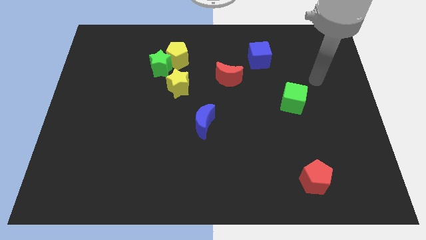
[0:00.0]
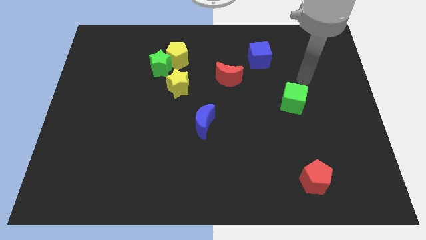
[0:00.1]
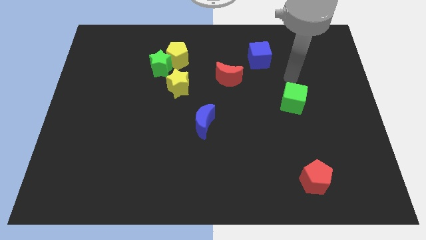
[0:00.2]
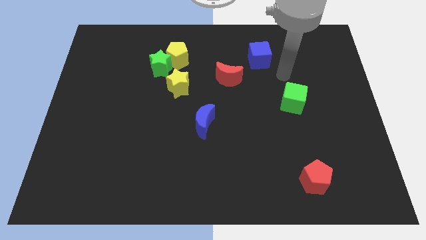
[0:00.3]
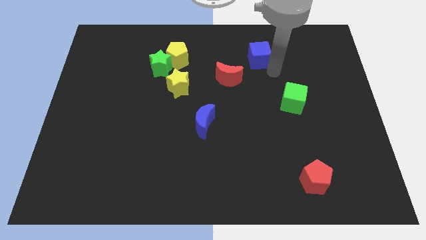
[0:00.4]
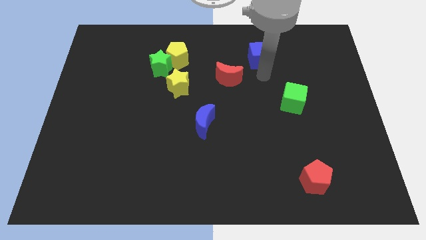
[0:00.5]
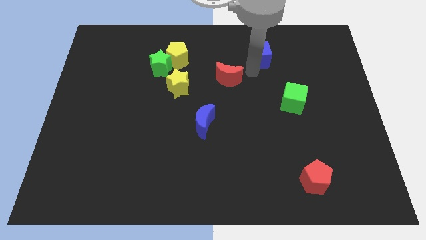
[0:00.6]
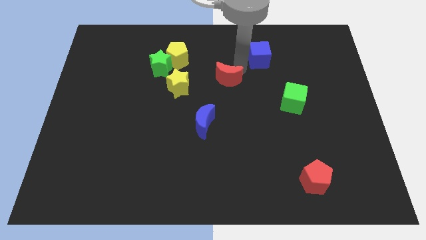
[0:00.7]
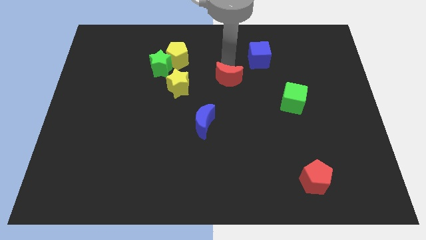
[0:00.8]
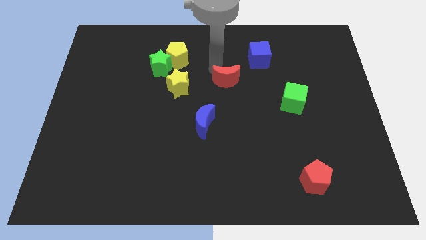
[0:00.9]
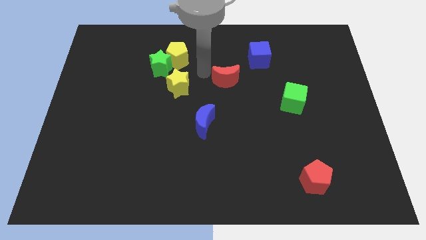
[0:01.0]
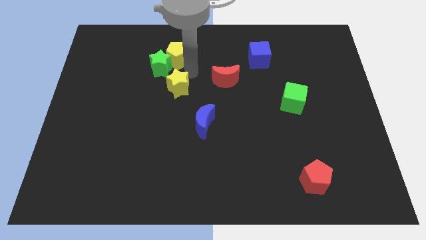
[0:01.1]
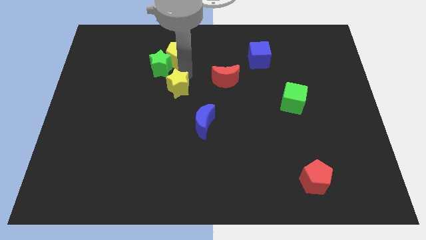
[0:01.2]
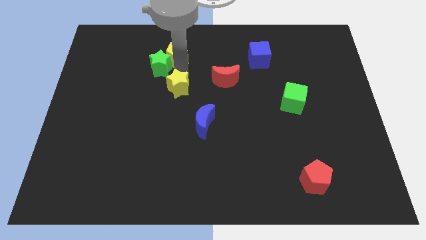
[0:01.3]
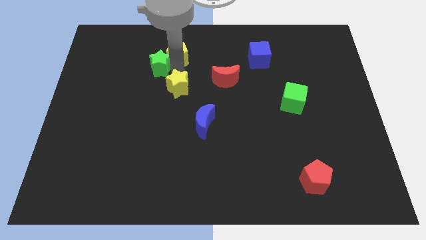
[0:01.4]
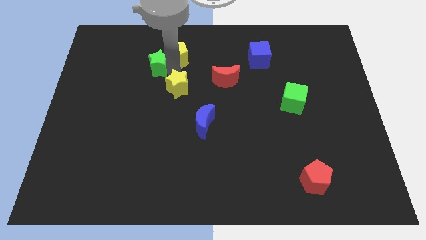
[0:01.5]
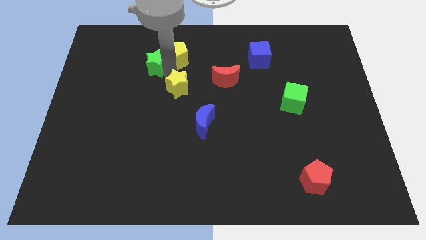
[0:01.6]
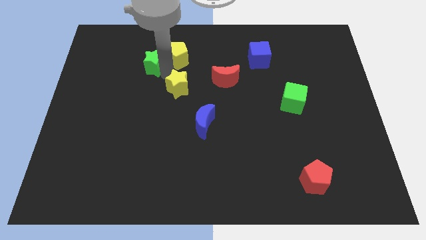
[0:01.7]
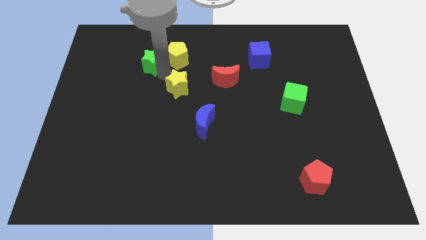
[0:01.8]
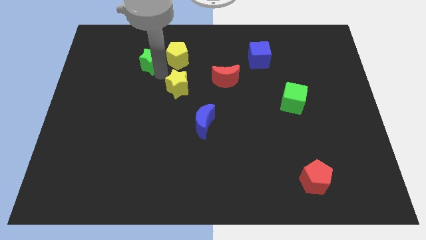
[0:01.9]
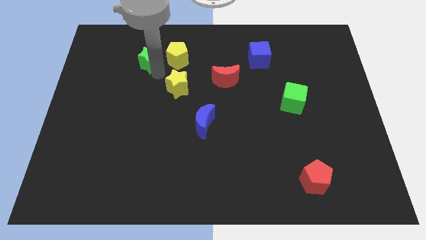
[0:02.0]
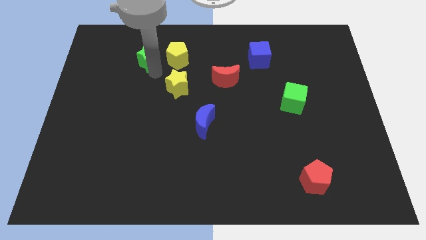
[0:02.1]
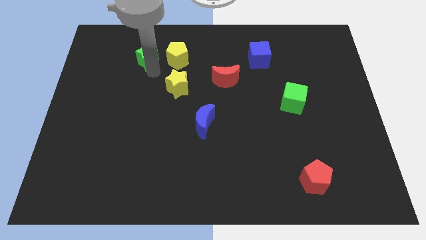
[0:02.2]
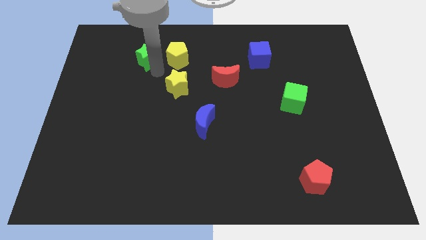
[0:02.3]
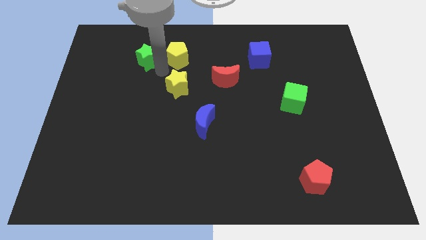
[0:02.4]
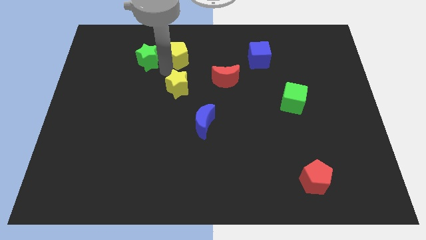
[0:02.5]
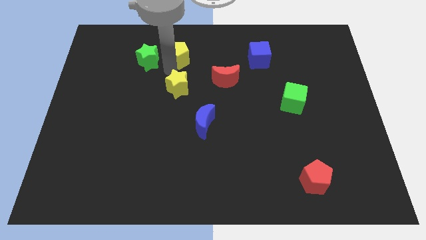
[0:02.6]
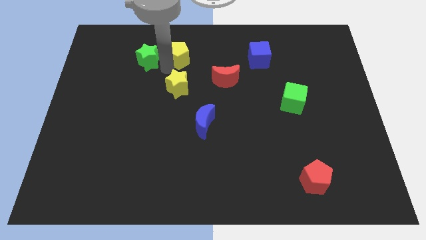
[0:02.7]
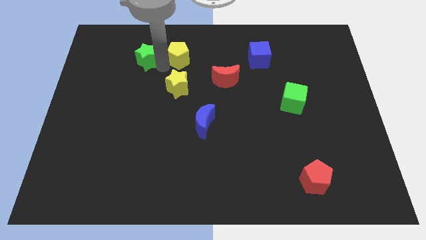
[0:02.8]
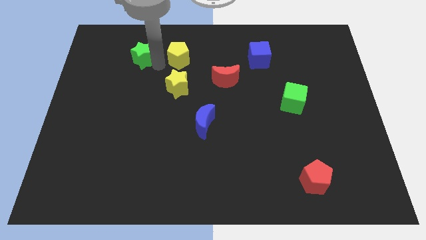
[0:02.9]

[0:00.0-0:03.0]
move the green star away from the yellow pentagon and yellow star

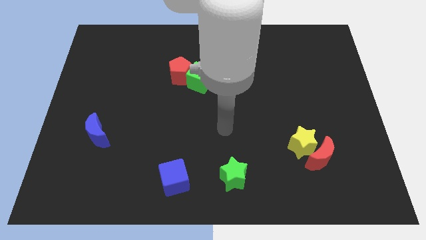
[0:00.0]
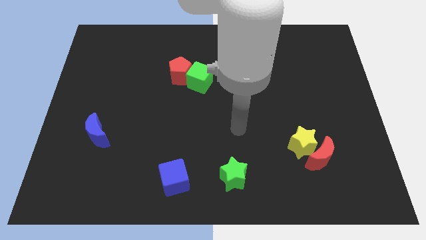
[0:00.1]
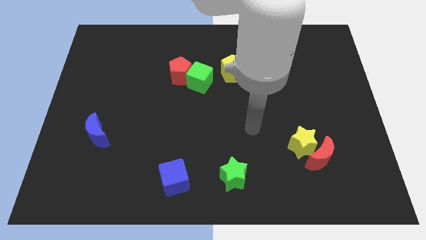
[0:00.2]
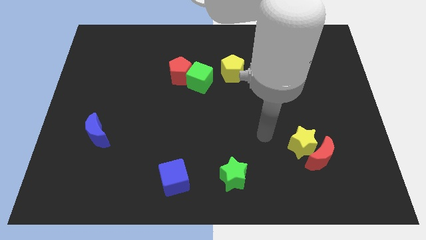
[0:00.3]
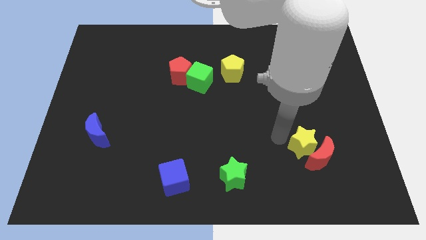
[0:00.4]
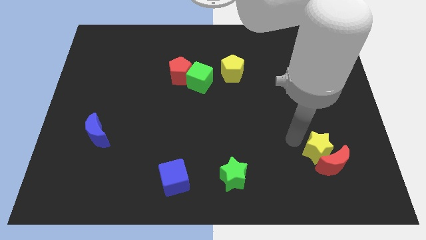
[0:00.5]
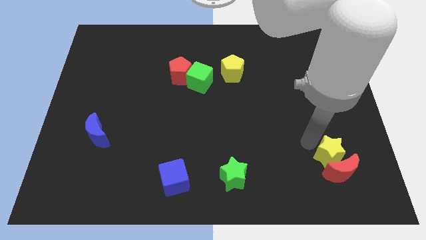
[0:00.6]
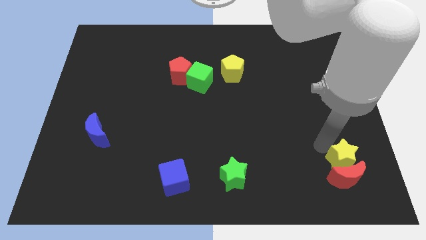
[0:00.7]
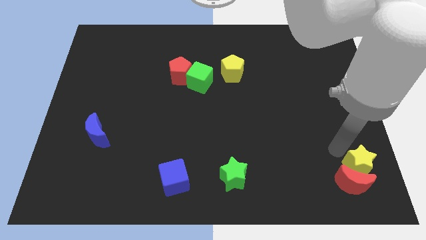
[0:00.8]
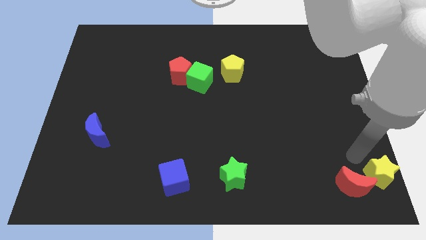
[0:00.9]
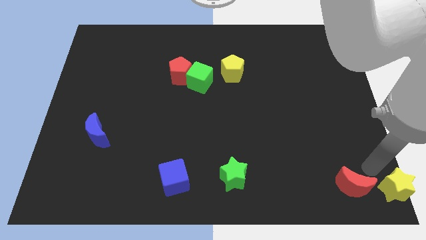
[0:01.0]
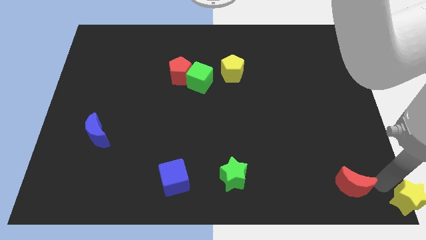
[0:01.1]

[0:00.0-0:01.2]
separate the red moon from the yellow star

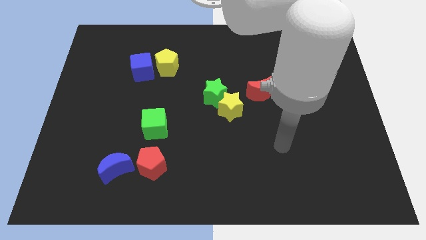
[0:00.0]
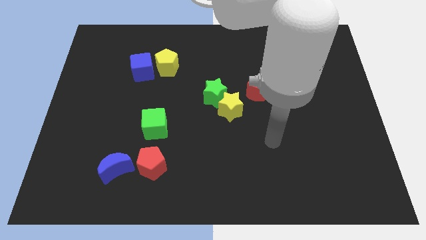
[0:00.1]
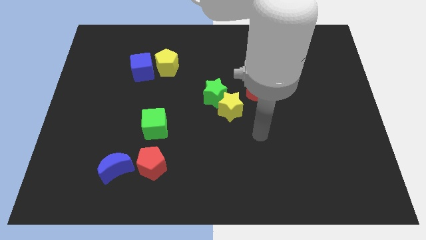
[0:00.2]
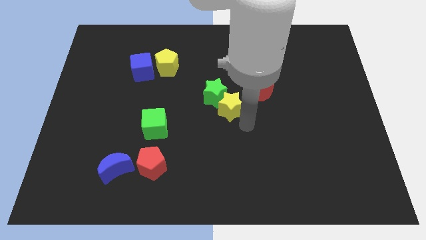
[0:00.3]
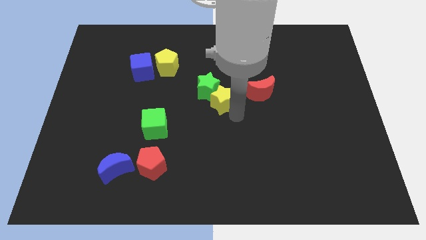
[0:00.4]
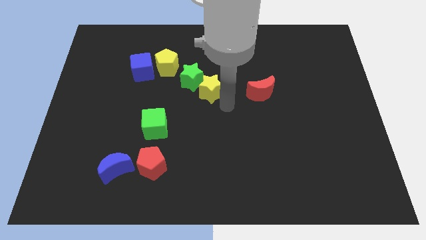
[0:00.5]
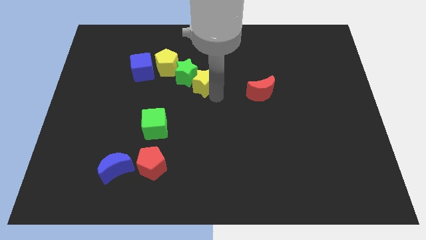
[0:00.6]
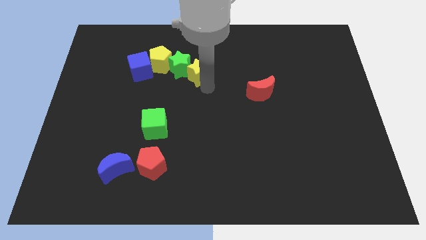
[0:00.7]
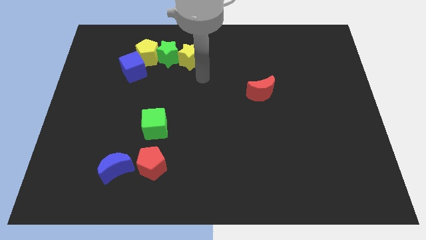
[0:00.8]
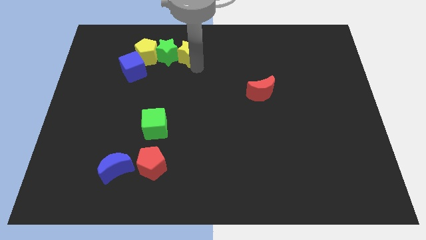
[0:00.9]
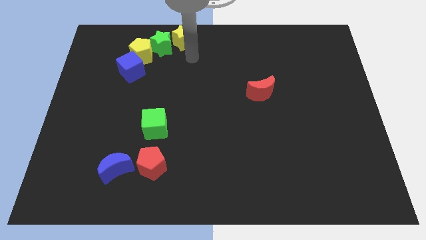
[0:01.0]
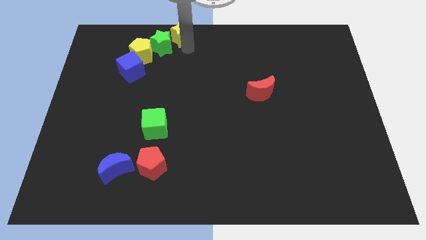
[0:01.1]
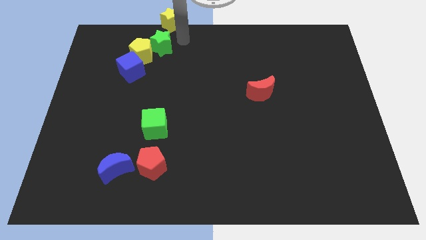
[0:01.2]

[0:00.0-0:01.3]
pull the green star apart from the yellow star

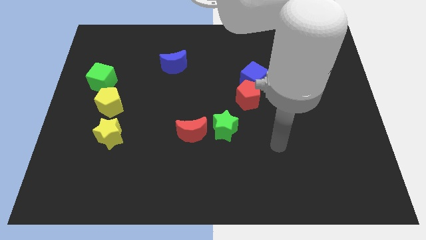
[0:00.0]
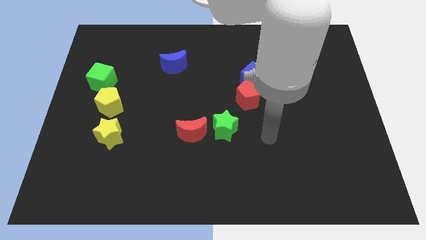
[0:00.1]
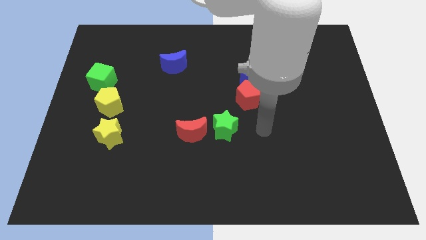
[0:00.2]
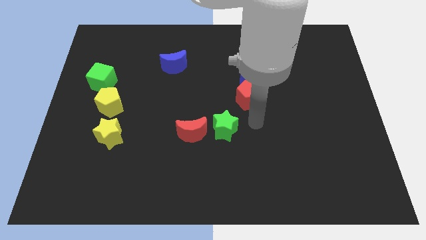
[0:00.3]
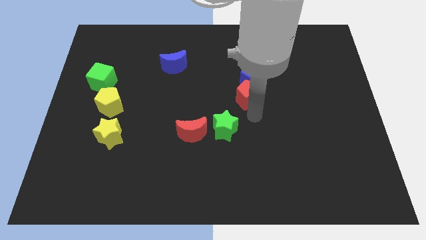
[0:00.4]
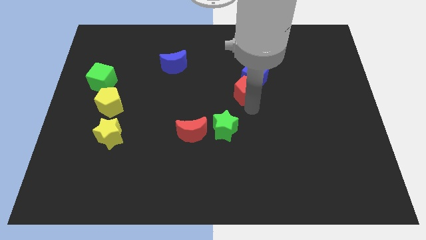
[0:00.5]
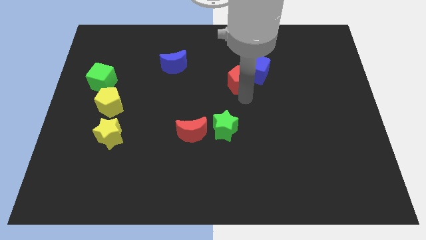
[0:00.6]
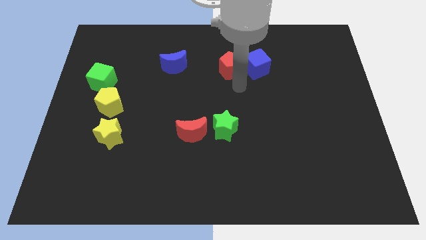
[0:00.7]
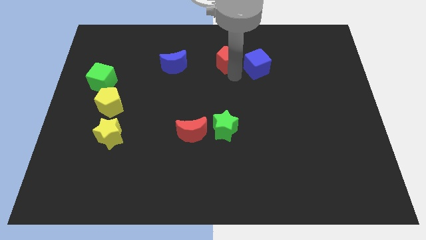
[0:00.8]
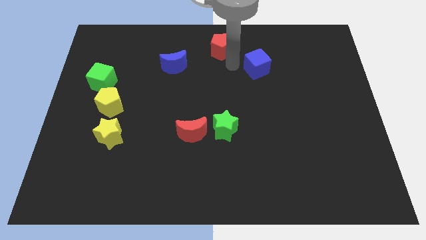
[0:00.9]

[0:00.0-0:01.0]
pull the blue cube apart from the red pentagon

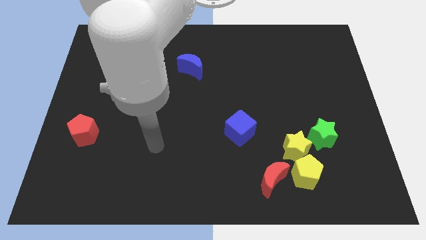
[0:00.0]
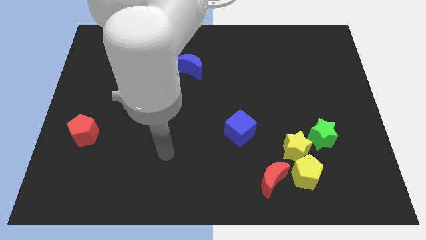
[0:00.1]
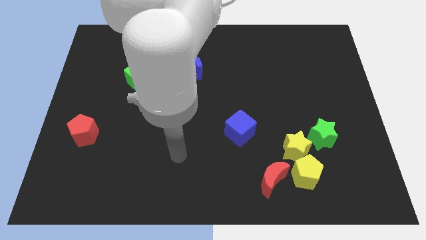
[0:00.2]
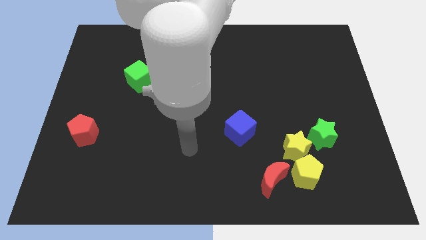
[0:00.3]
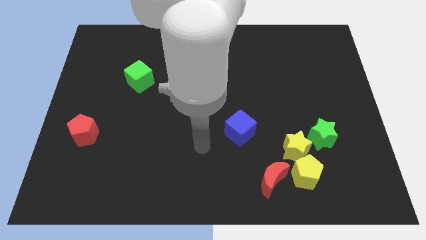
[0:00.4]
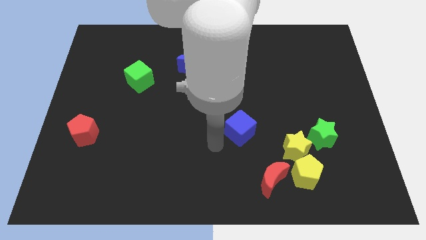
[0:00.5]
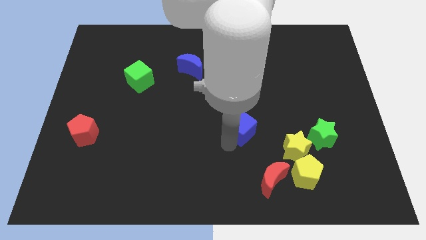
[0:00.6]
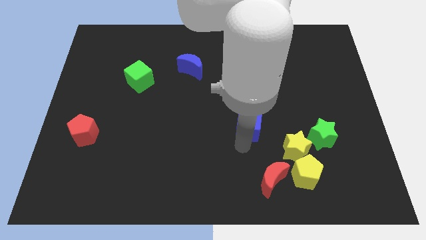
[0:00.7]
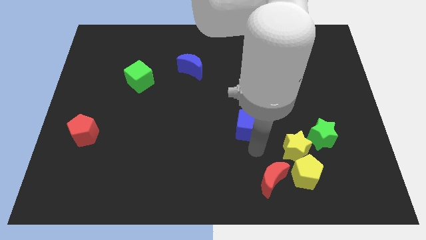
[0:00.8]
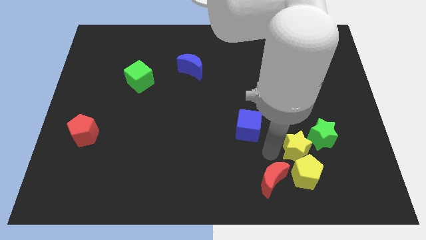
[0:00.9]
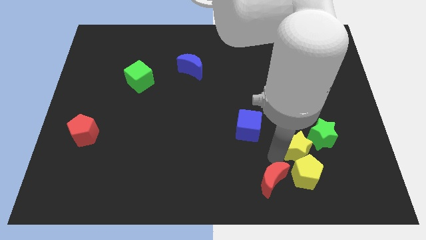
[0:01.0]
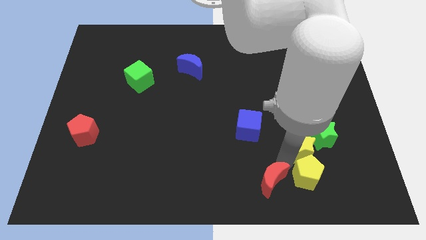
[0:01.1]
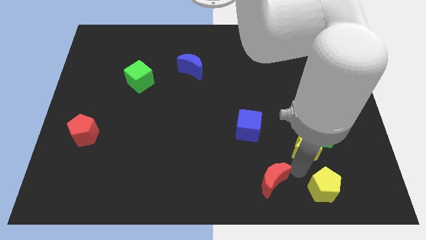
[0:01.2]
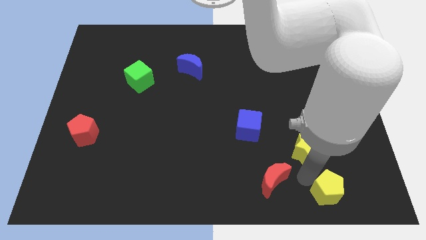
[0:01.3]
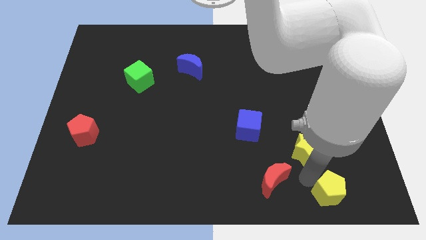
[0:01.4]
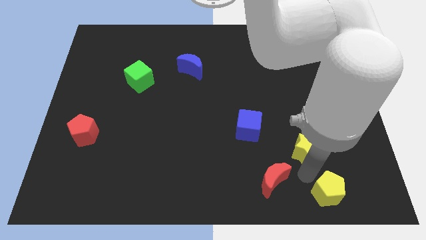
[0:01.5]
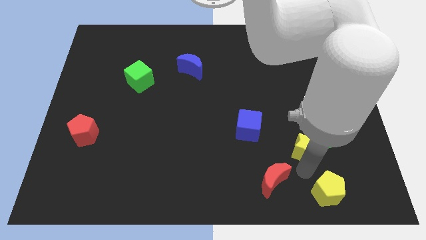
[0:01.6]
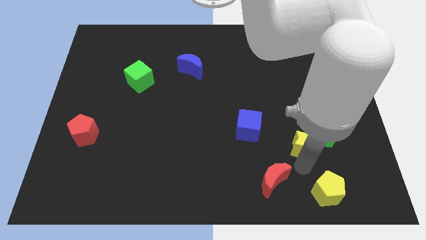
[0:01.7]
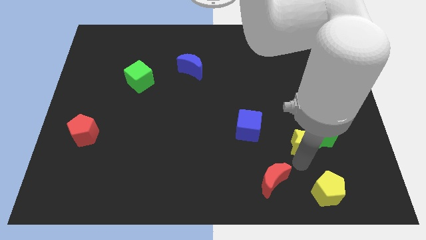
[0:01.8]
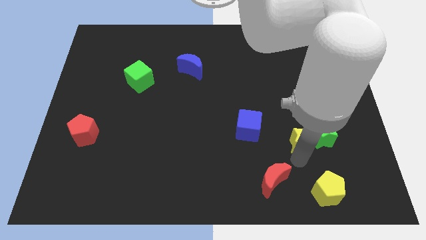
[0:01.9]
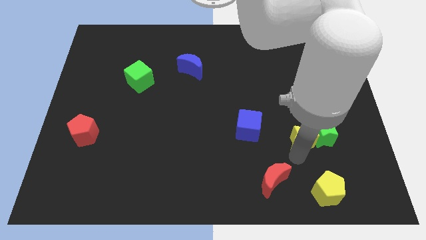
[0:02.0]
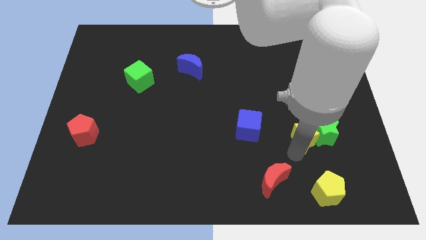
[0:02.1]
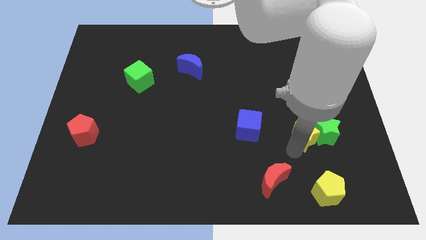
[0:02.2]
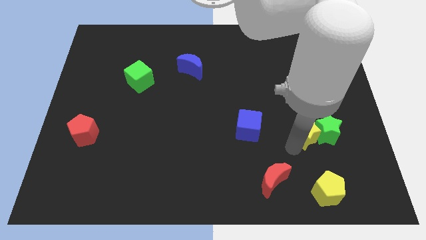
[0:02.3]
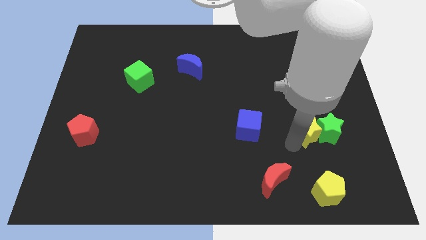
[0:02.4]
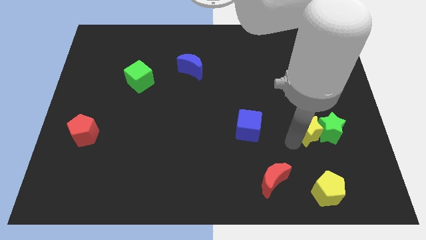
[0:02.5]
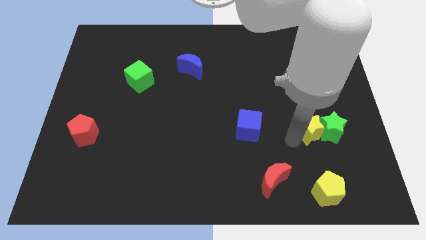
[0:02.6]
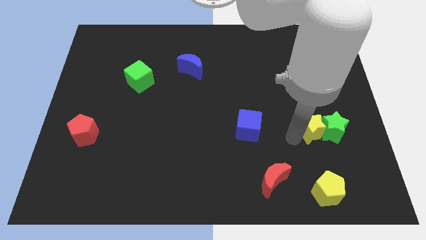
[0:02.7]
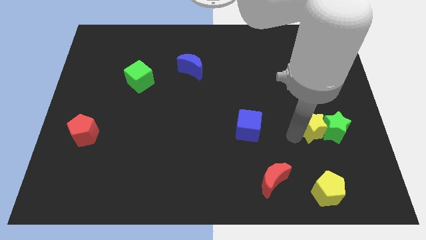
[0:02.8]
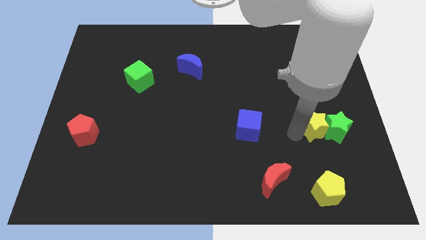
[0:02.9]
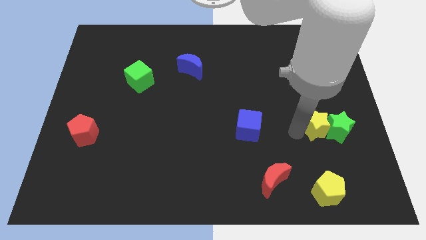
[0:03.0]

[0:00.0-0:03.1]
move the yellow star away from the clump
